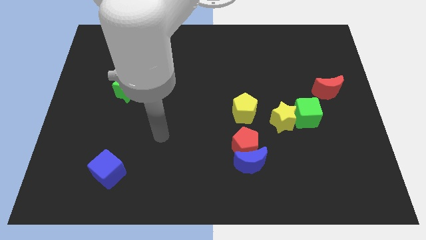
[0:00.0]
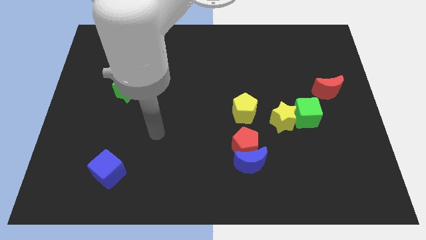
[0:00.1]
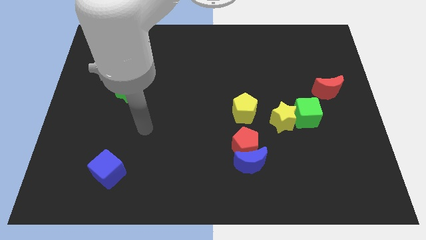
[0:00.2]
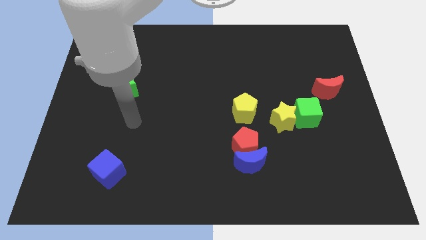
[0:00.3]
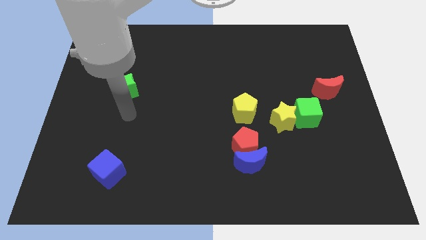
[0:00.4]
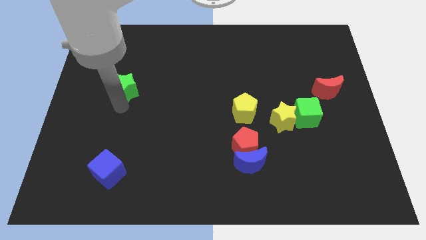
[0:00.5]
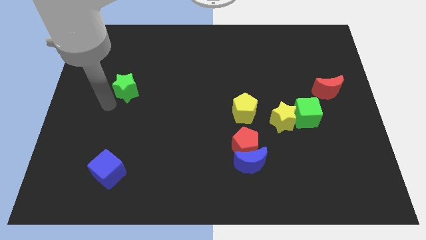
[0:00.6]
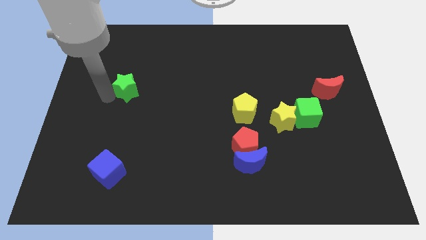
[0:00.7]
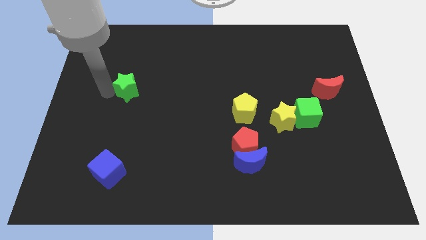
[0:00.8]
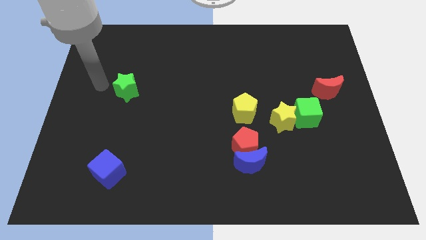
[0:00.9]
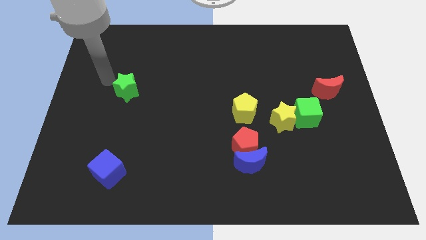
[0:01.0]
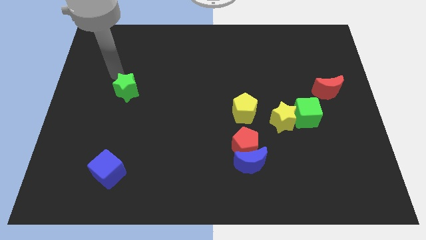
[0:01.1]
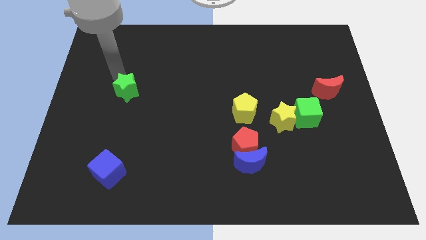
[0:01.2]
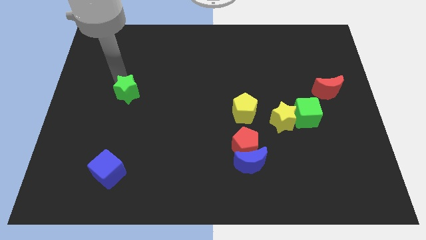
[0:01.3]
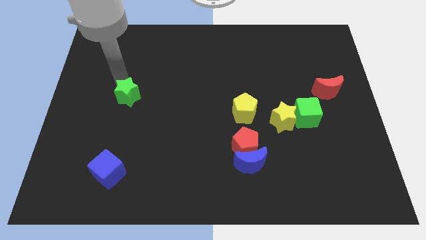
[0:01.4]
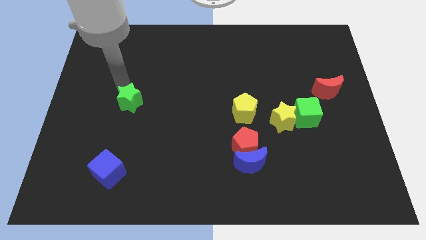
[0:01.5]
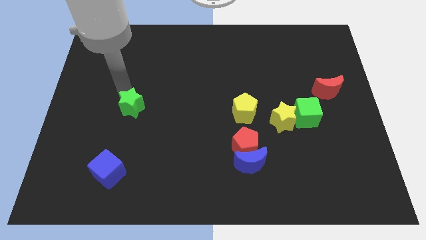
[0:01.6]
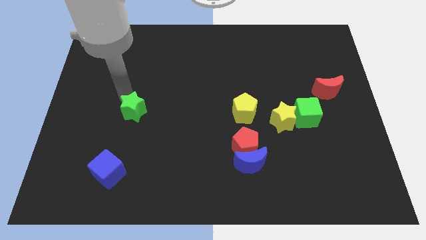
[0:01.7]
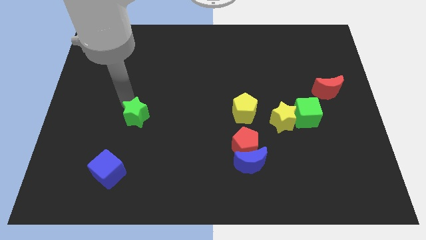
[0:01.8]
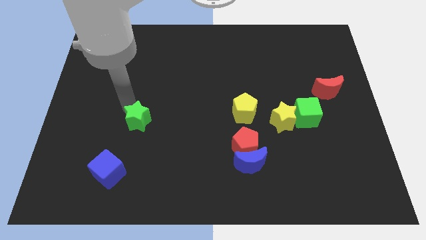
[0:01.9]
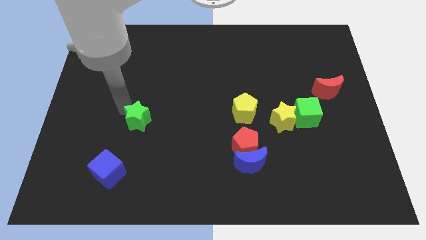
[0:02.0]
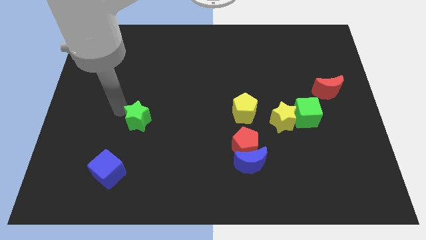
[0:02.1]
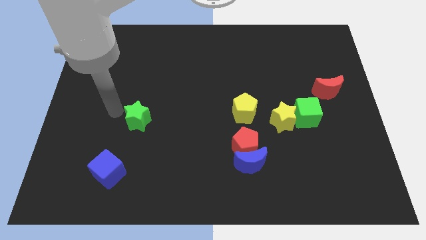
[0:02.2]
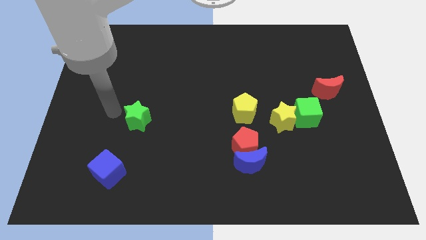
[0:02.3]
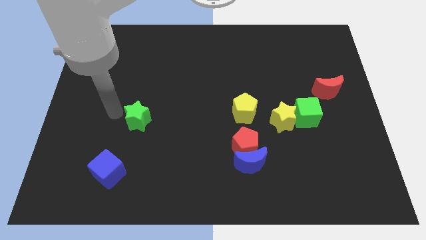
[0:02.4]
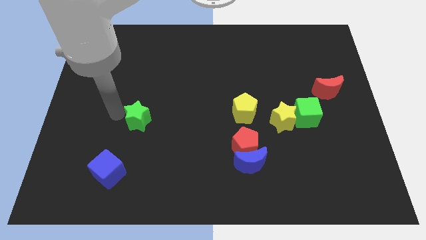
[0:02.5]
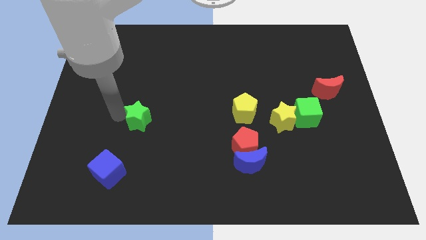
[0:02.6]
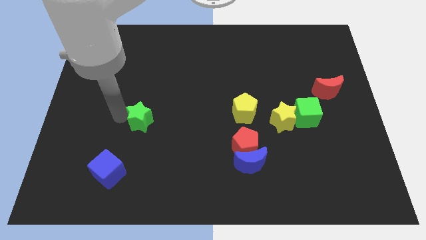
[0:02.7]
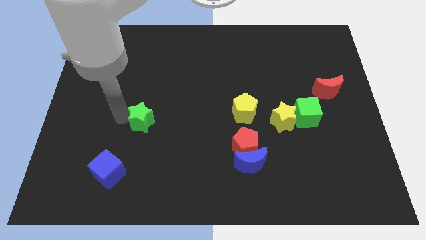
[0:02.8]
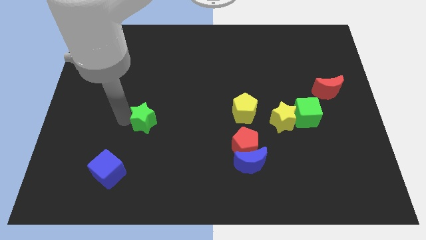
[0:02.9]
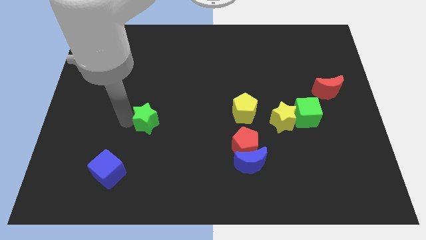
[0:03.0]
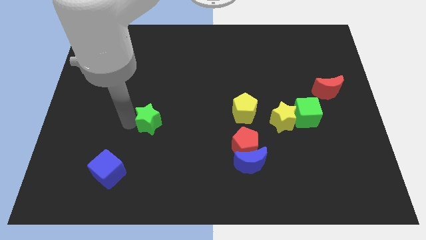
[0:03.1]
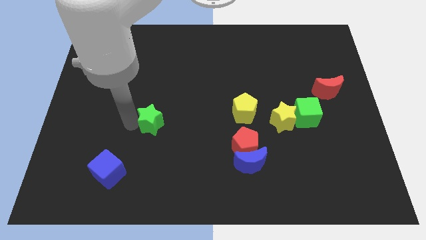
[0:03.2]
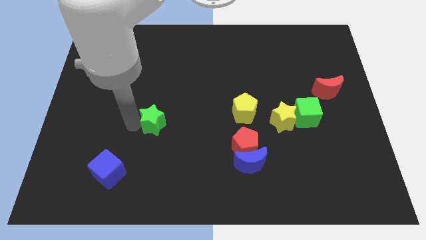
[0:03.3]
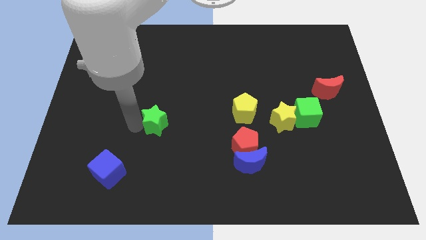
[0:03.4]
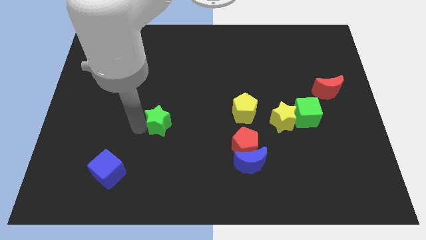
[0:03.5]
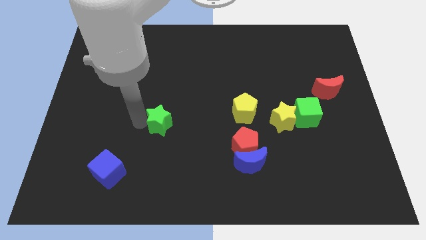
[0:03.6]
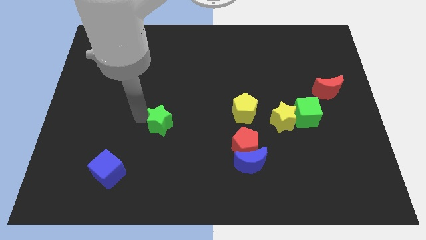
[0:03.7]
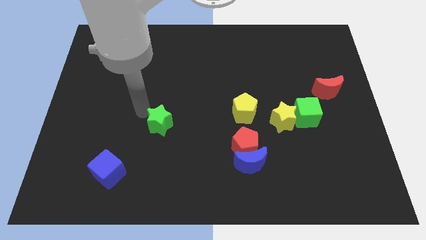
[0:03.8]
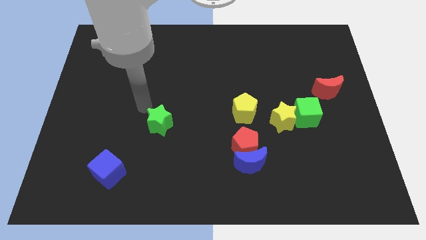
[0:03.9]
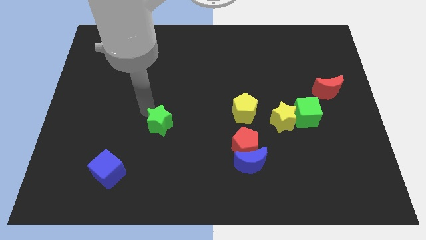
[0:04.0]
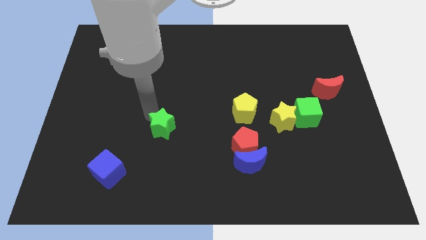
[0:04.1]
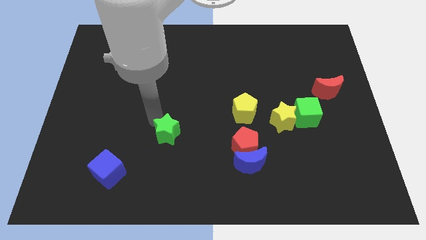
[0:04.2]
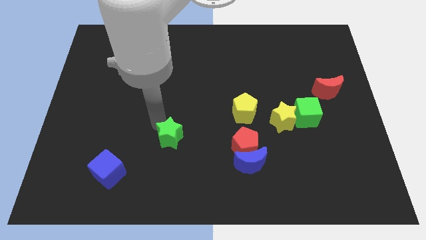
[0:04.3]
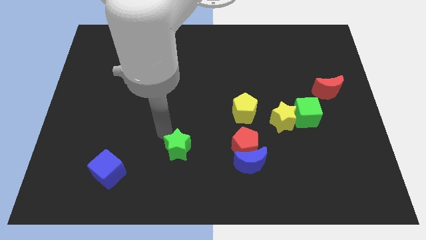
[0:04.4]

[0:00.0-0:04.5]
push the green star down and right

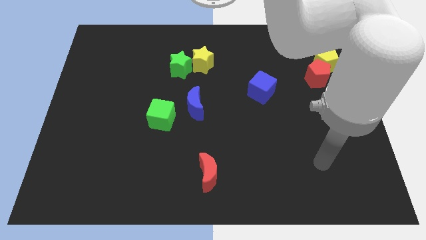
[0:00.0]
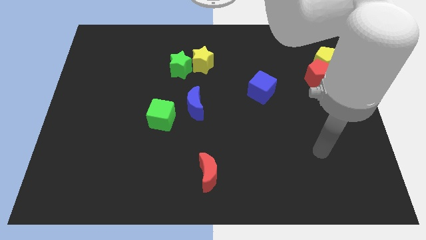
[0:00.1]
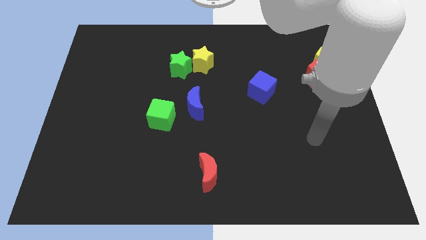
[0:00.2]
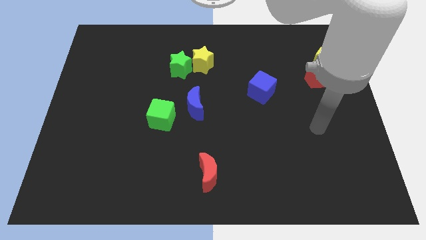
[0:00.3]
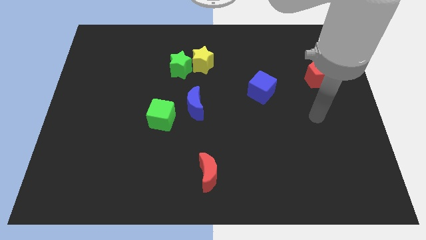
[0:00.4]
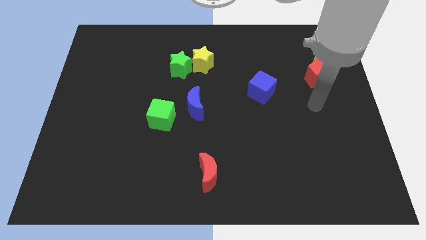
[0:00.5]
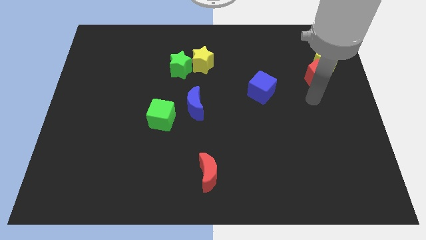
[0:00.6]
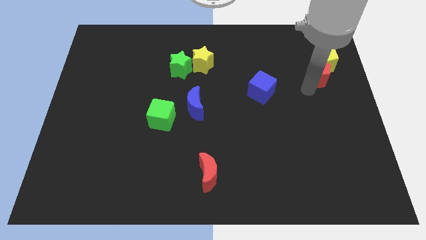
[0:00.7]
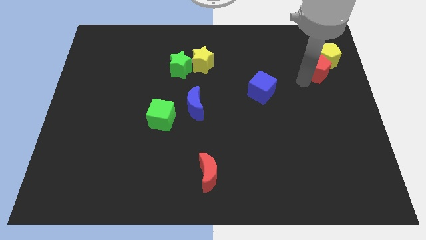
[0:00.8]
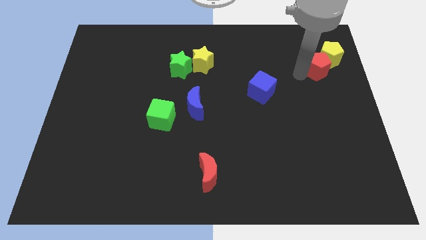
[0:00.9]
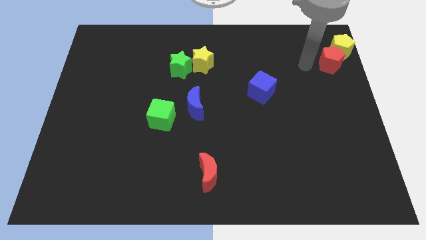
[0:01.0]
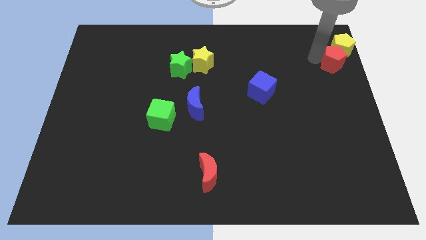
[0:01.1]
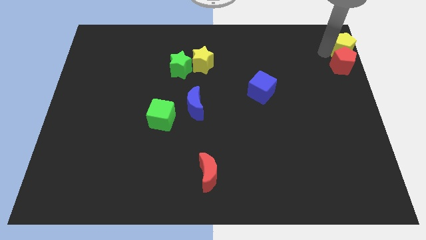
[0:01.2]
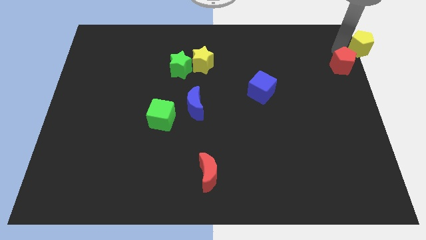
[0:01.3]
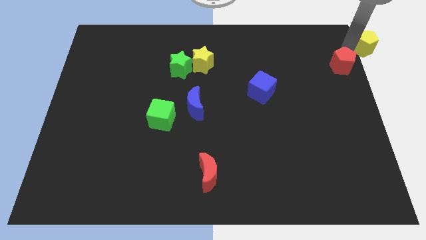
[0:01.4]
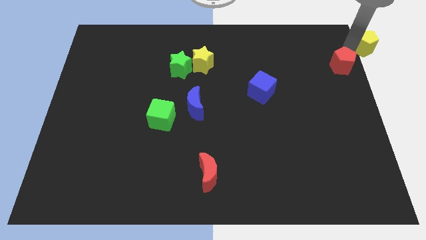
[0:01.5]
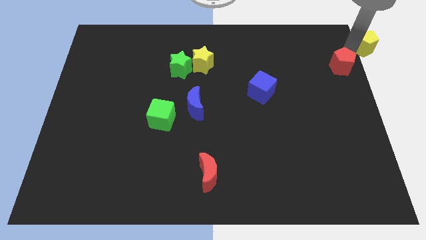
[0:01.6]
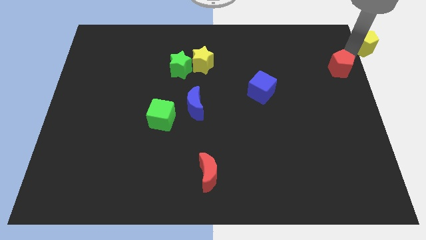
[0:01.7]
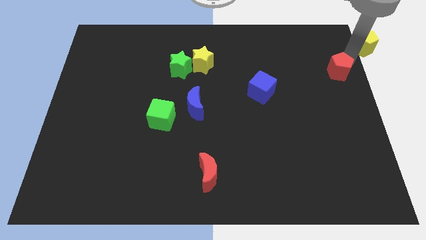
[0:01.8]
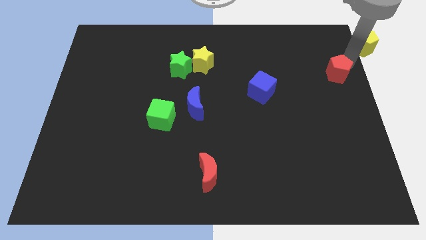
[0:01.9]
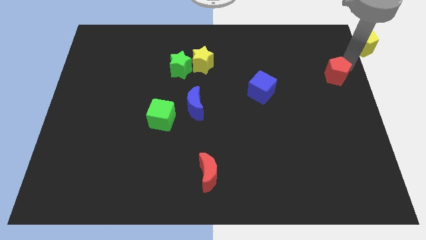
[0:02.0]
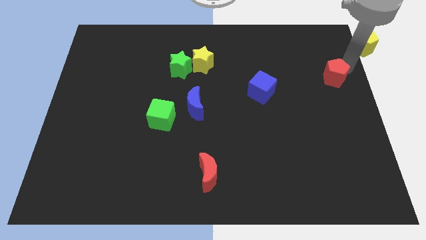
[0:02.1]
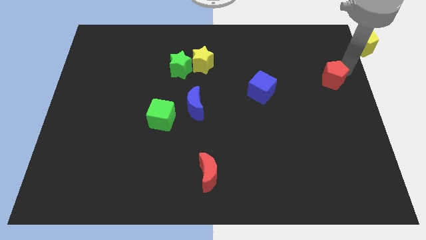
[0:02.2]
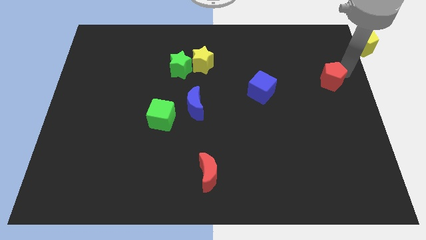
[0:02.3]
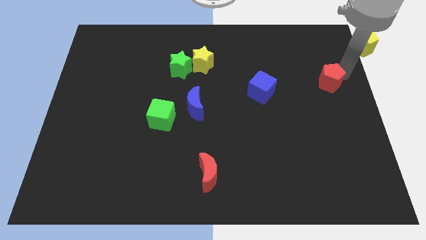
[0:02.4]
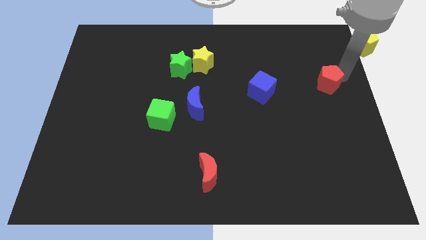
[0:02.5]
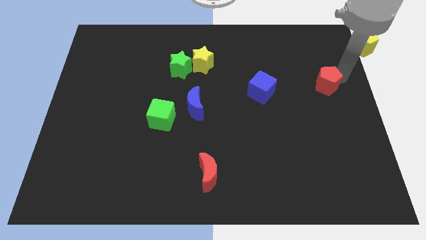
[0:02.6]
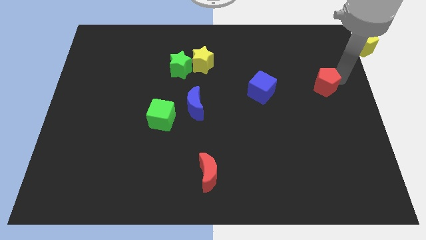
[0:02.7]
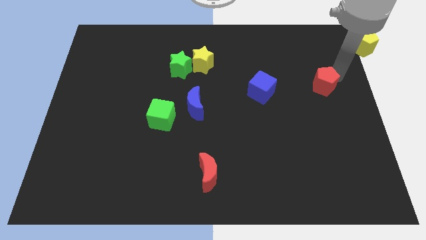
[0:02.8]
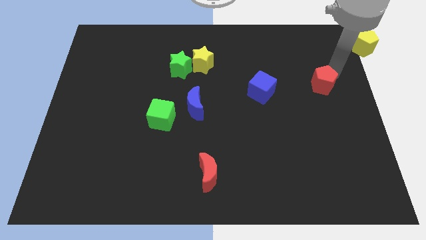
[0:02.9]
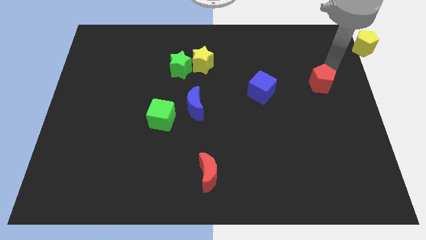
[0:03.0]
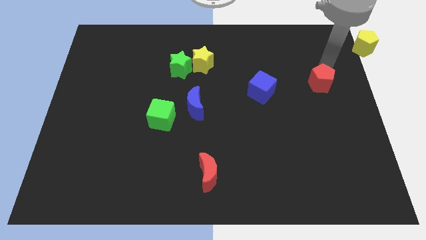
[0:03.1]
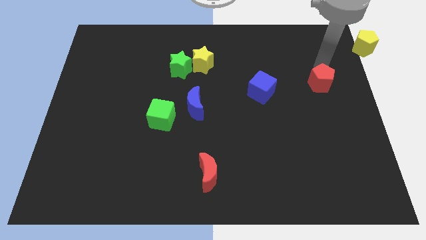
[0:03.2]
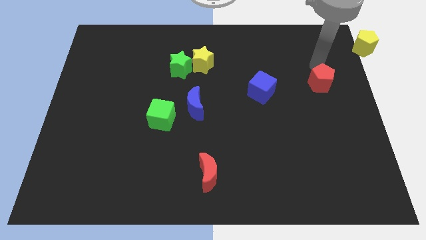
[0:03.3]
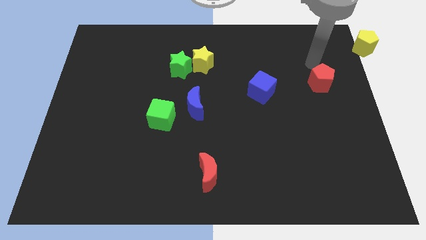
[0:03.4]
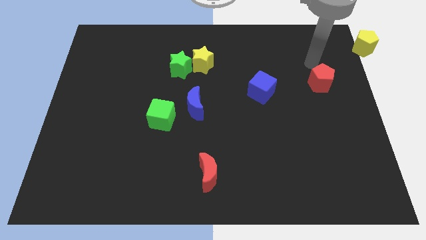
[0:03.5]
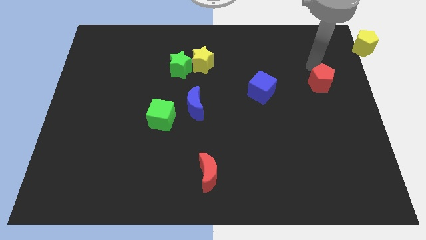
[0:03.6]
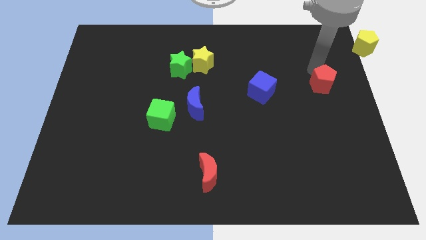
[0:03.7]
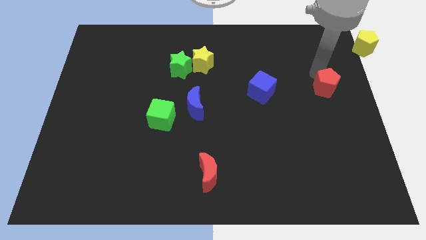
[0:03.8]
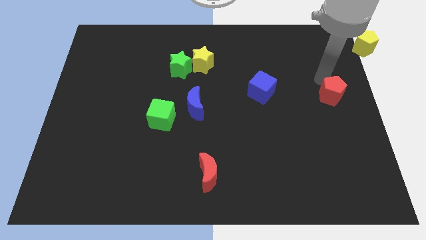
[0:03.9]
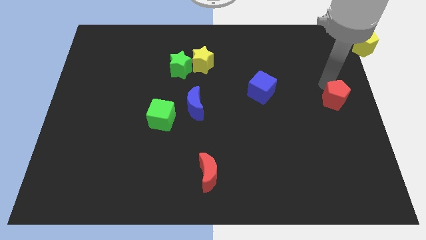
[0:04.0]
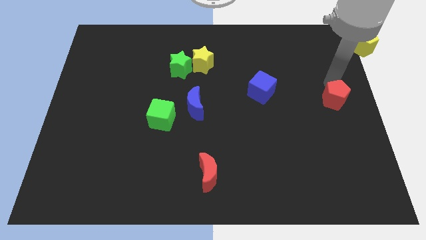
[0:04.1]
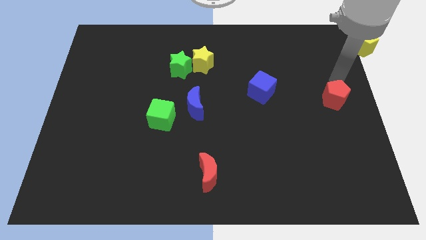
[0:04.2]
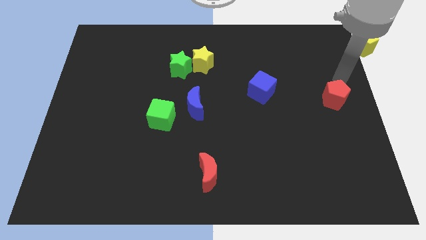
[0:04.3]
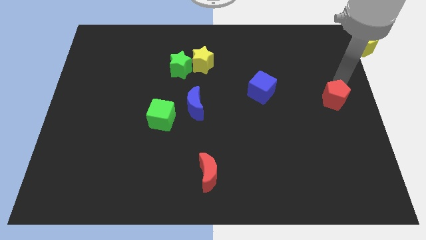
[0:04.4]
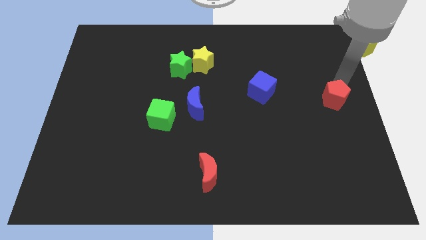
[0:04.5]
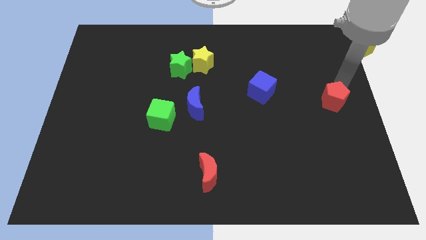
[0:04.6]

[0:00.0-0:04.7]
move the red pentagon somewhat down
